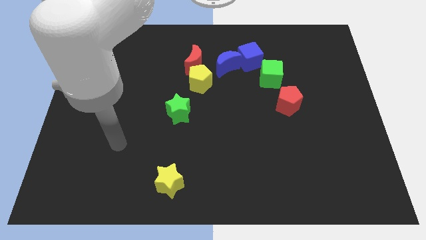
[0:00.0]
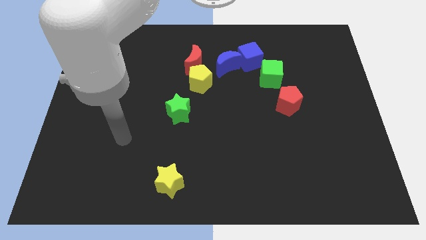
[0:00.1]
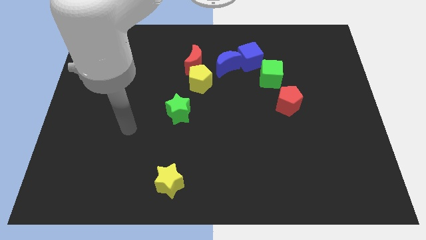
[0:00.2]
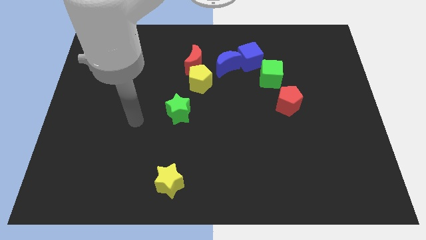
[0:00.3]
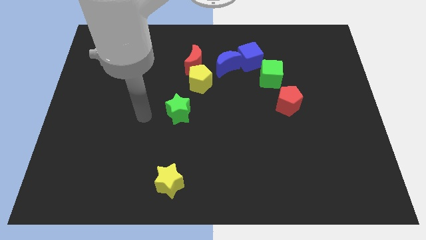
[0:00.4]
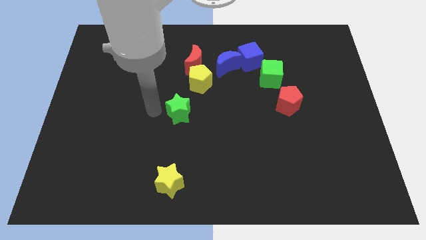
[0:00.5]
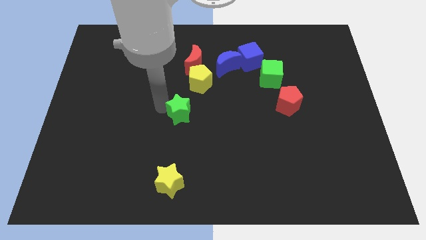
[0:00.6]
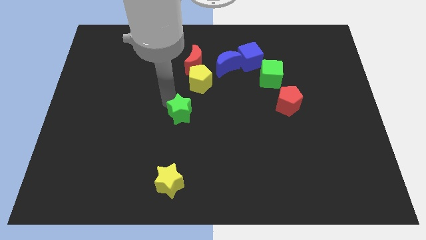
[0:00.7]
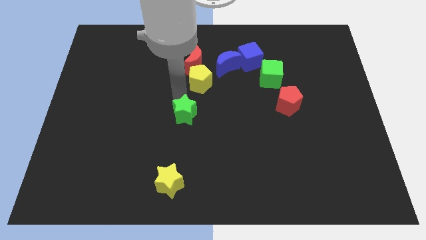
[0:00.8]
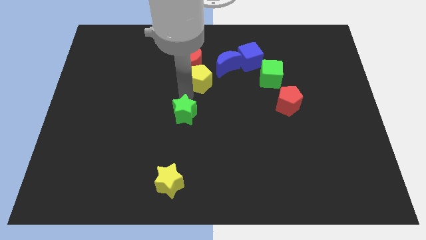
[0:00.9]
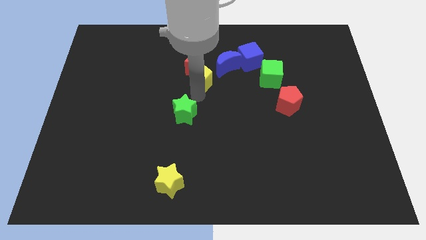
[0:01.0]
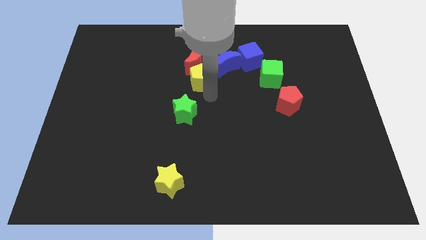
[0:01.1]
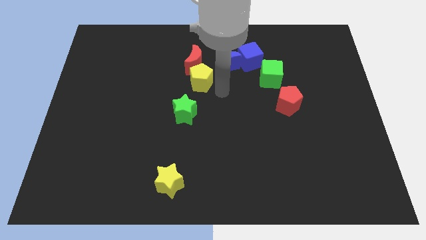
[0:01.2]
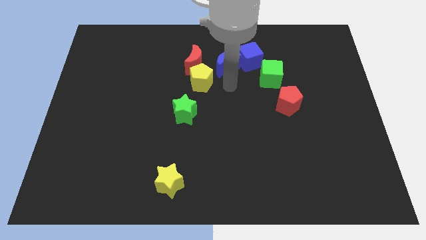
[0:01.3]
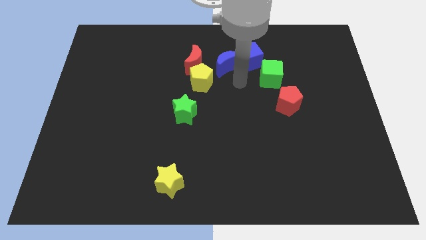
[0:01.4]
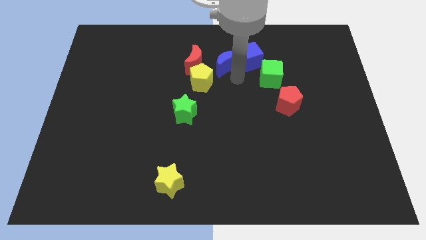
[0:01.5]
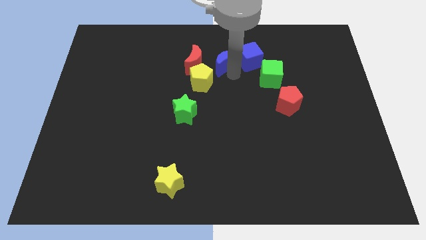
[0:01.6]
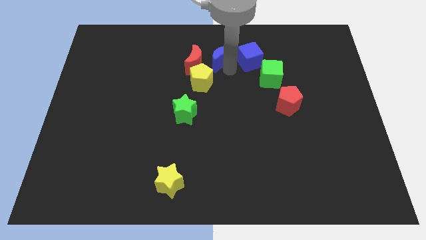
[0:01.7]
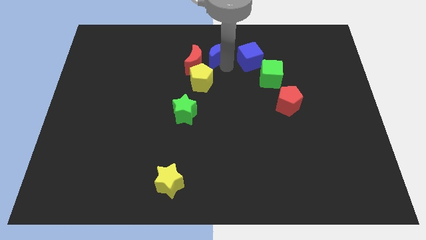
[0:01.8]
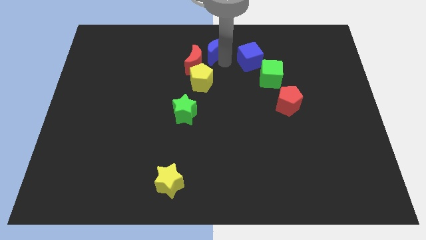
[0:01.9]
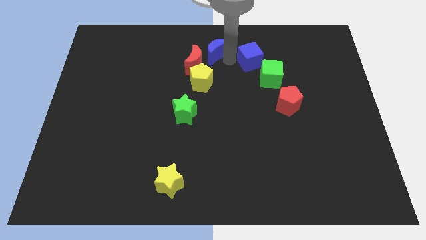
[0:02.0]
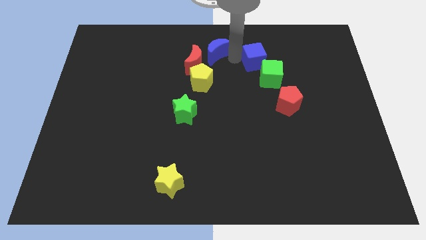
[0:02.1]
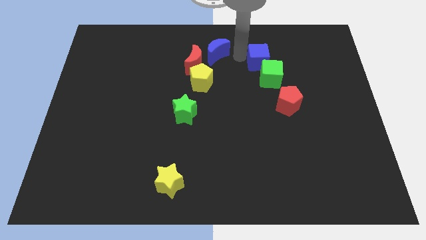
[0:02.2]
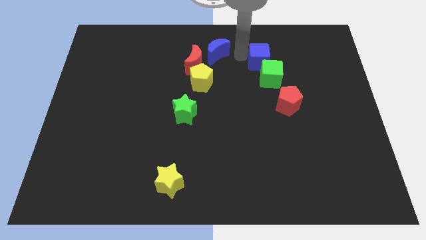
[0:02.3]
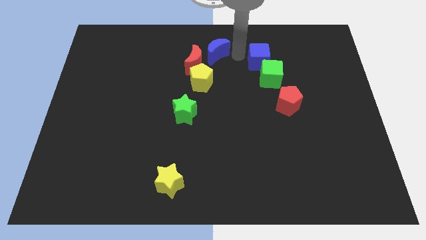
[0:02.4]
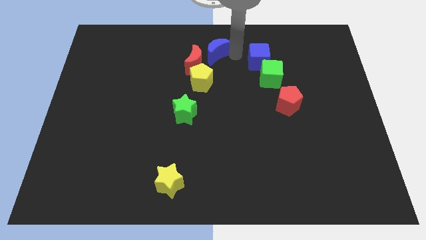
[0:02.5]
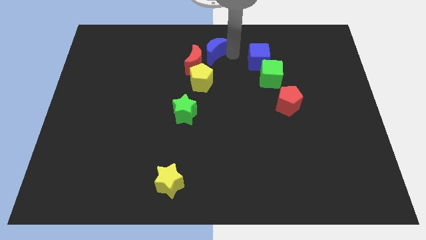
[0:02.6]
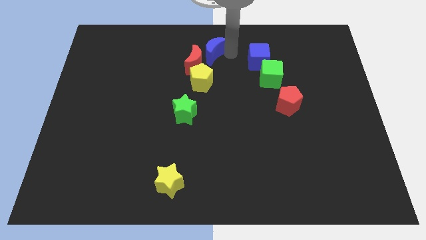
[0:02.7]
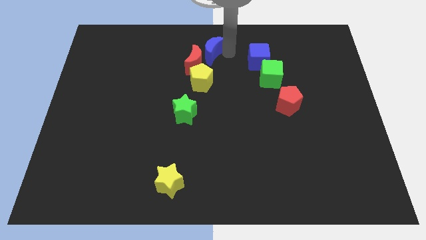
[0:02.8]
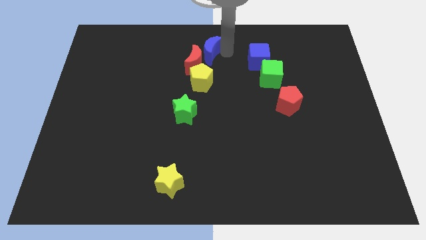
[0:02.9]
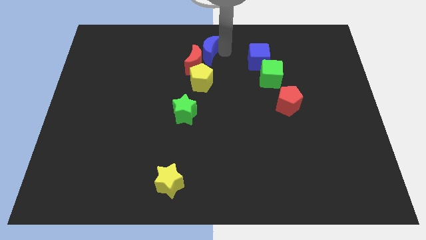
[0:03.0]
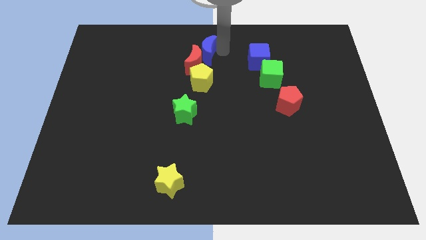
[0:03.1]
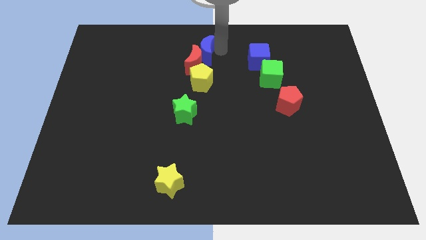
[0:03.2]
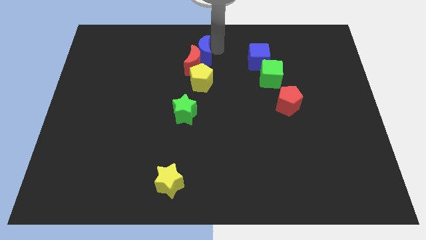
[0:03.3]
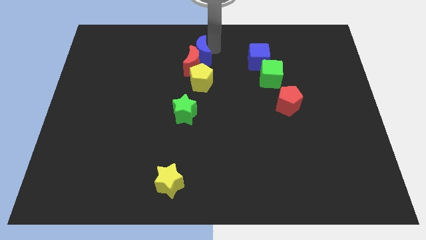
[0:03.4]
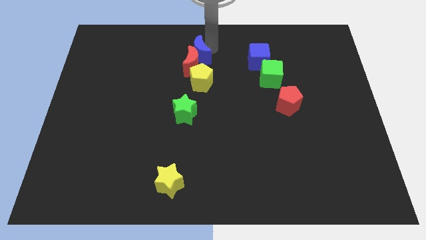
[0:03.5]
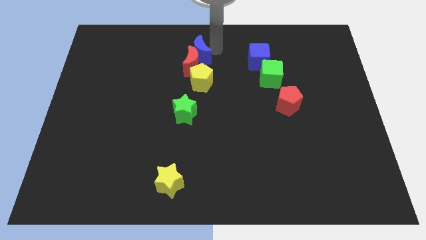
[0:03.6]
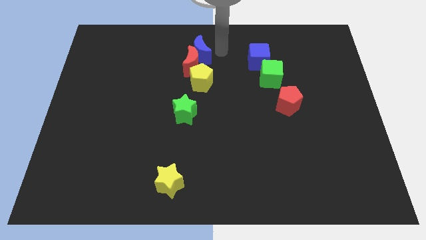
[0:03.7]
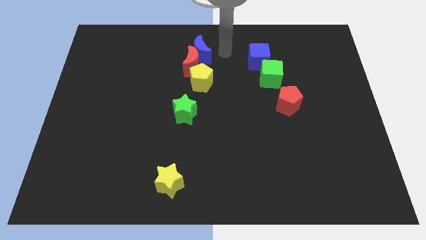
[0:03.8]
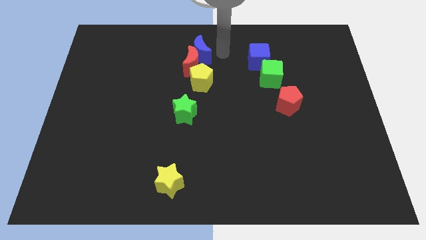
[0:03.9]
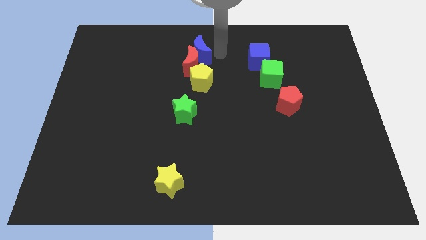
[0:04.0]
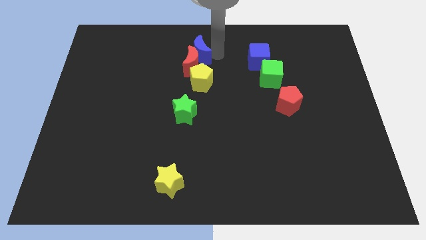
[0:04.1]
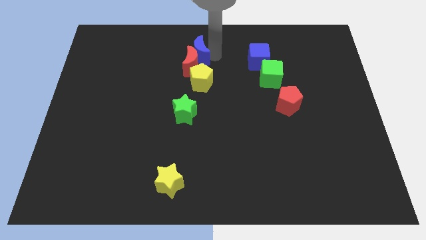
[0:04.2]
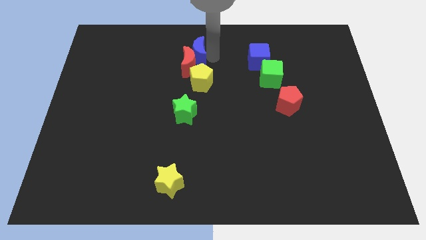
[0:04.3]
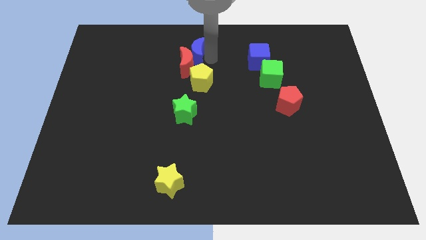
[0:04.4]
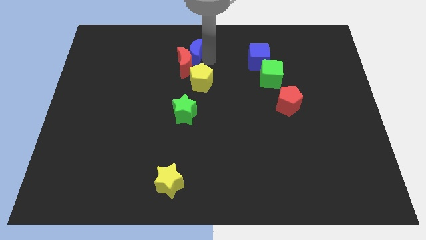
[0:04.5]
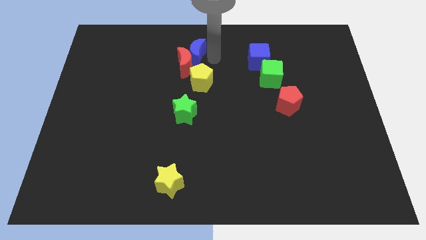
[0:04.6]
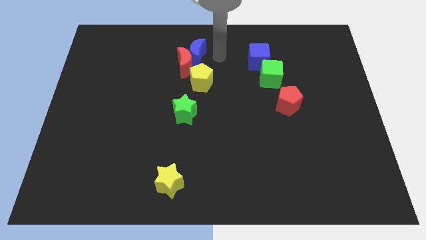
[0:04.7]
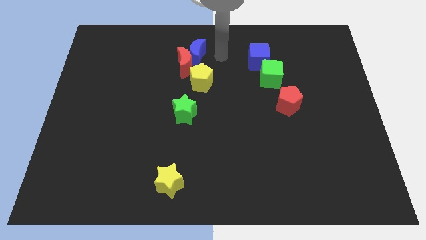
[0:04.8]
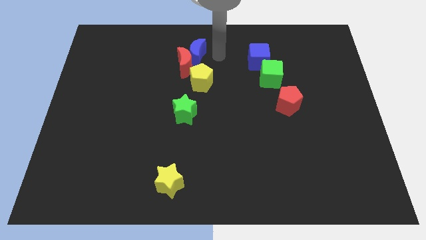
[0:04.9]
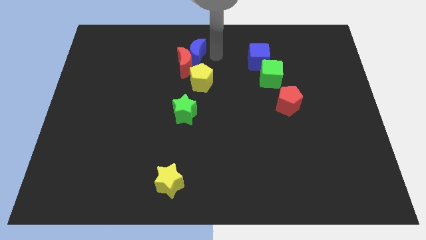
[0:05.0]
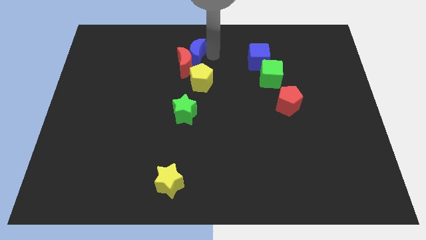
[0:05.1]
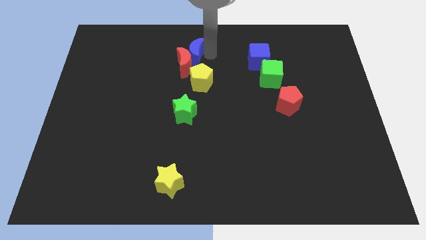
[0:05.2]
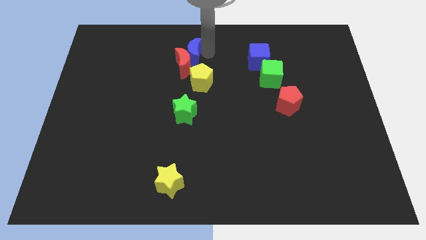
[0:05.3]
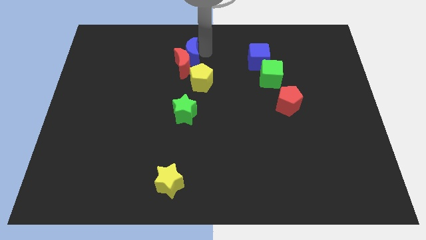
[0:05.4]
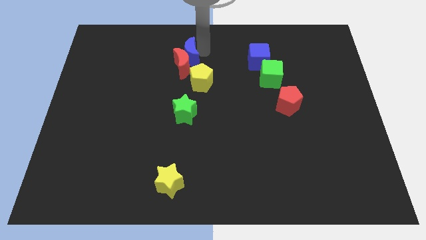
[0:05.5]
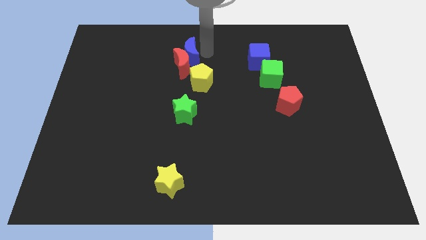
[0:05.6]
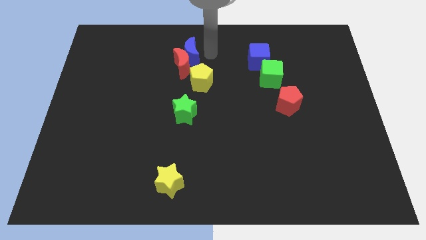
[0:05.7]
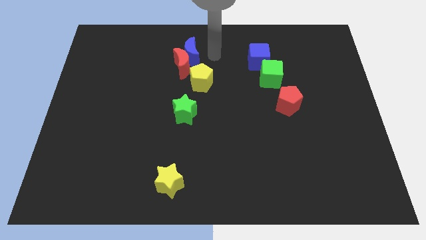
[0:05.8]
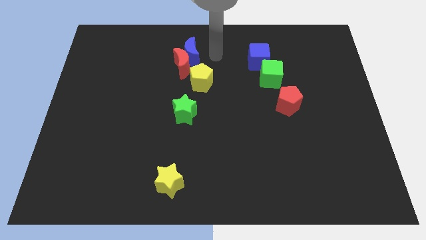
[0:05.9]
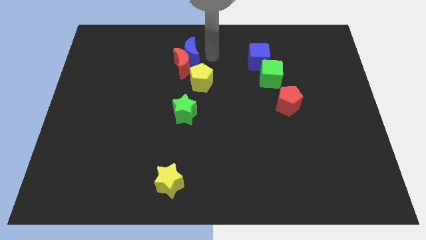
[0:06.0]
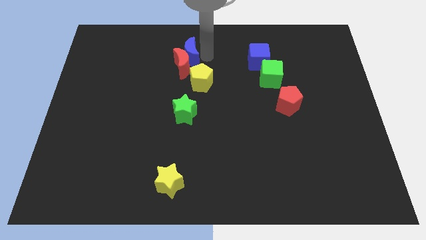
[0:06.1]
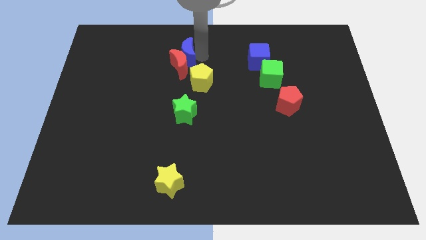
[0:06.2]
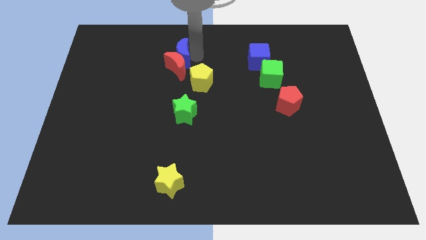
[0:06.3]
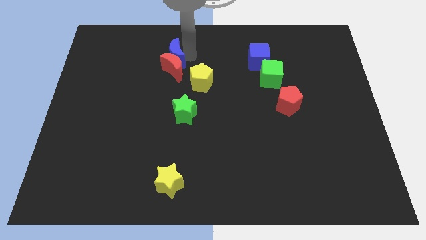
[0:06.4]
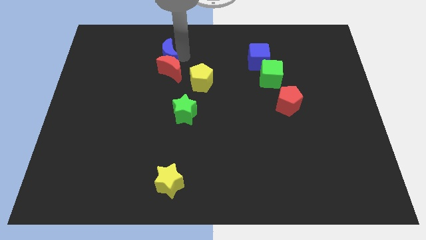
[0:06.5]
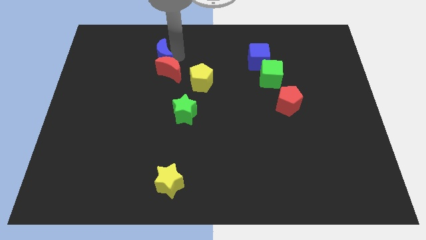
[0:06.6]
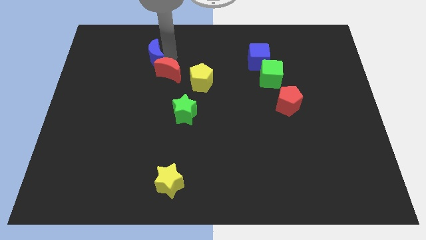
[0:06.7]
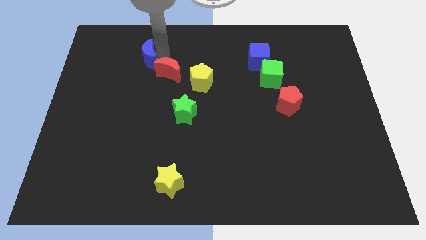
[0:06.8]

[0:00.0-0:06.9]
push the blue moon left

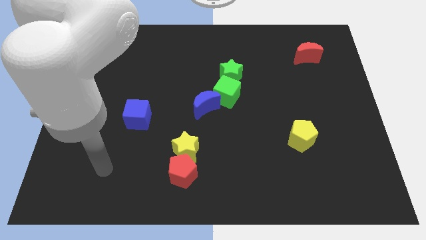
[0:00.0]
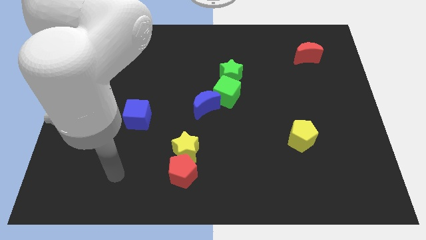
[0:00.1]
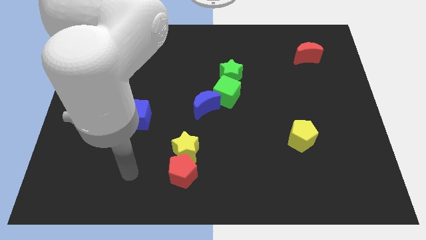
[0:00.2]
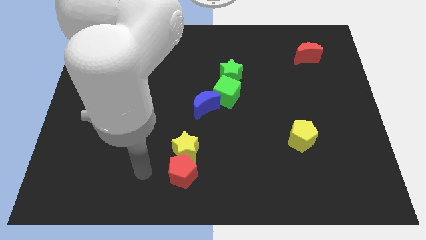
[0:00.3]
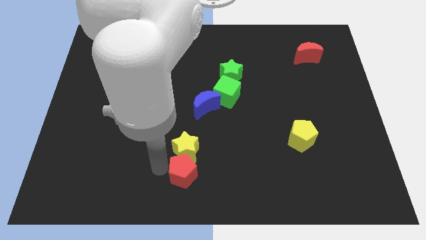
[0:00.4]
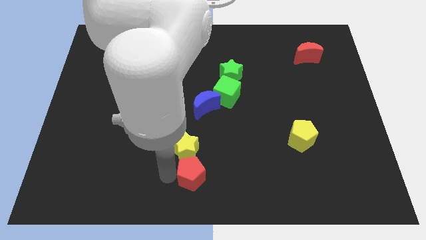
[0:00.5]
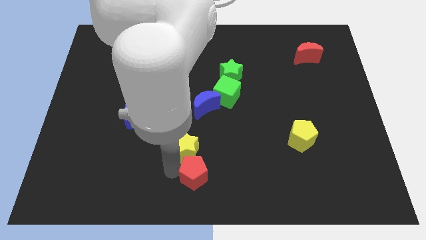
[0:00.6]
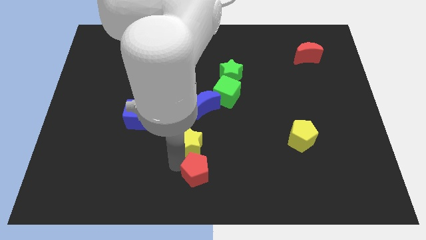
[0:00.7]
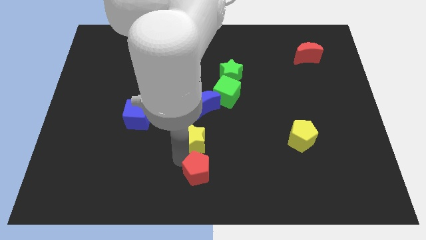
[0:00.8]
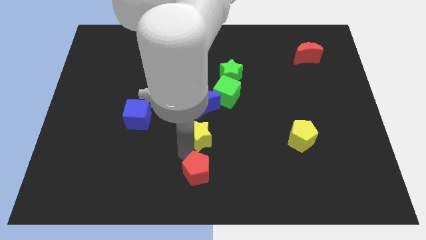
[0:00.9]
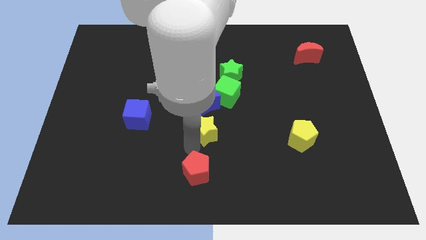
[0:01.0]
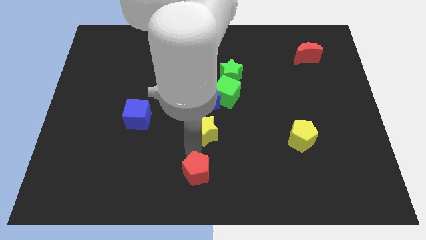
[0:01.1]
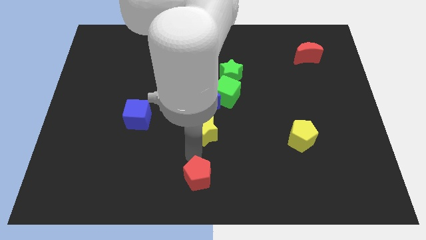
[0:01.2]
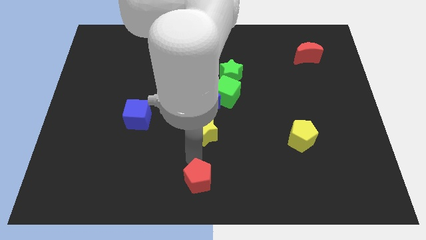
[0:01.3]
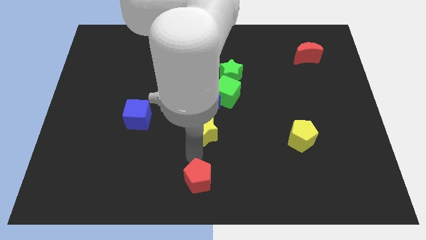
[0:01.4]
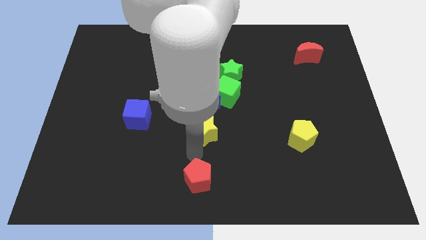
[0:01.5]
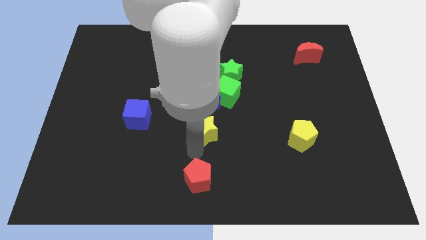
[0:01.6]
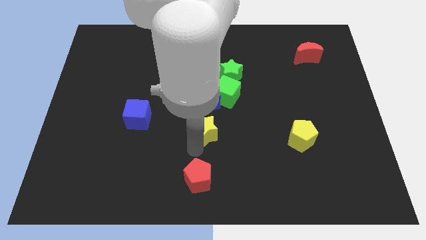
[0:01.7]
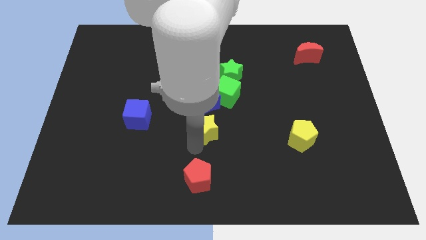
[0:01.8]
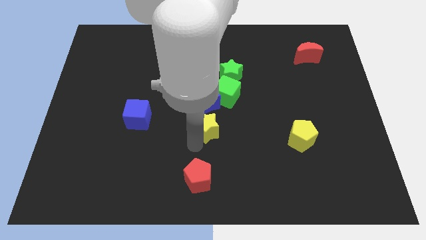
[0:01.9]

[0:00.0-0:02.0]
push the yellow star upwards and then to the right a little bit
